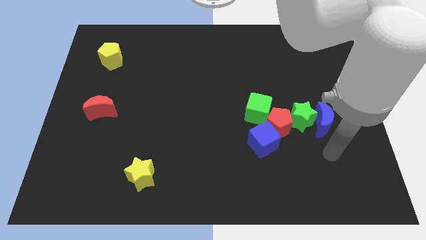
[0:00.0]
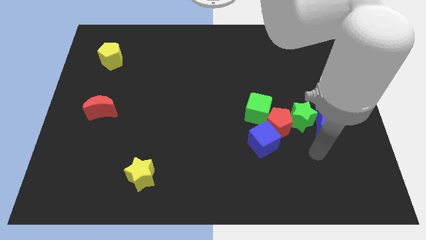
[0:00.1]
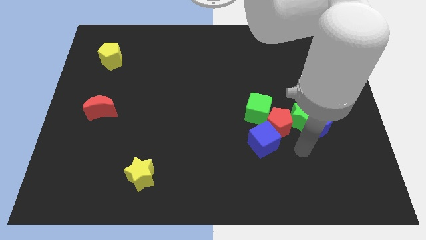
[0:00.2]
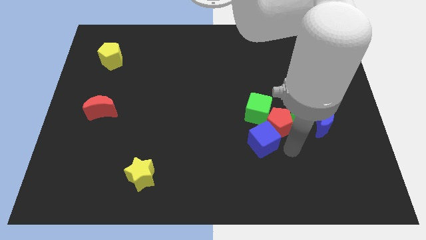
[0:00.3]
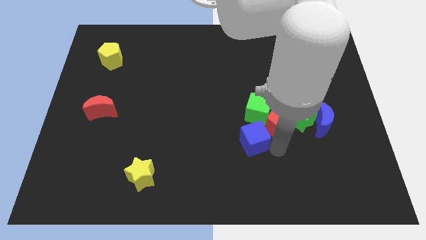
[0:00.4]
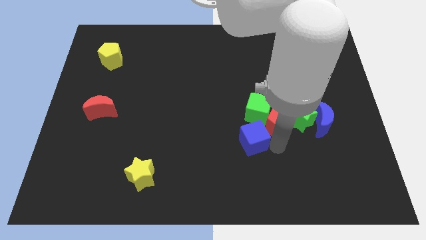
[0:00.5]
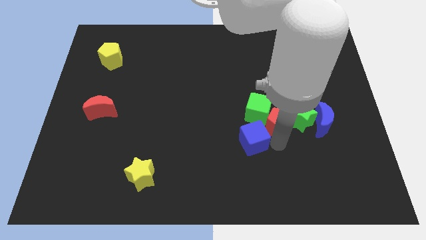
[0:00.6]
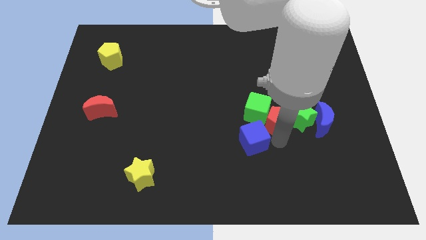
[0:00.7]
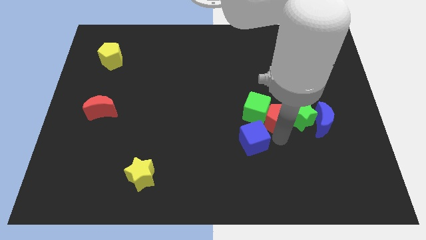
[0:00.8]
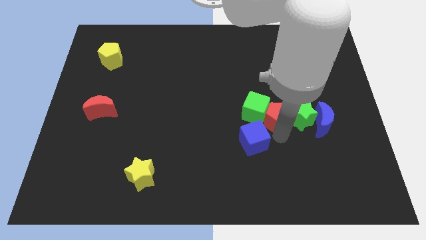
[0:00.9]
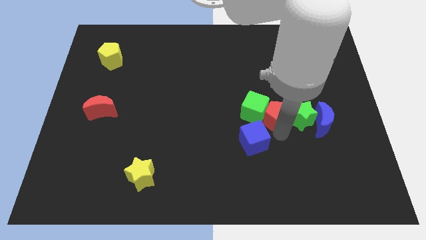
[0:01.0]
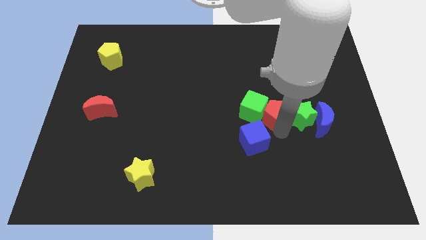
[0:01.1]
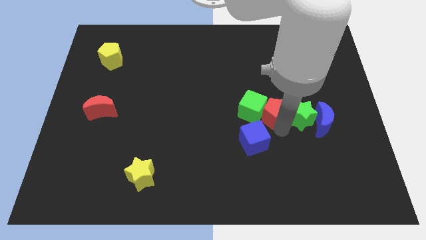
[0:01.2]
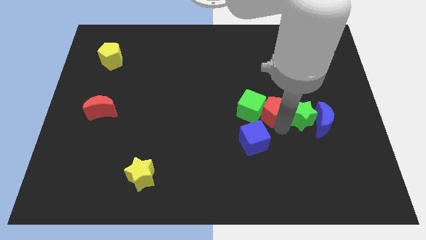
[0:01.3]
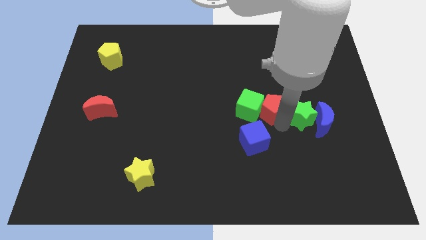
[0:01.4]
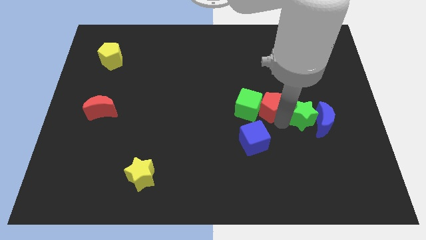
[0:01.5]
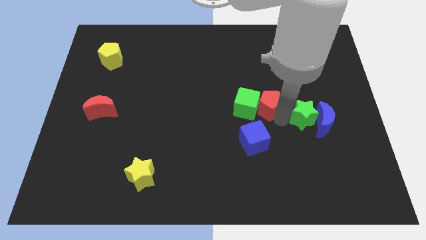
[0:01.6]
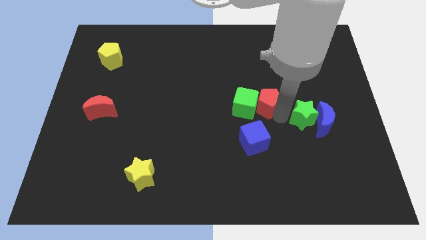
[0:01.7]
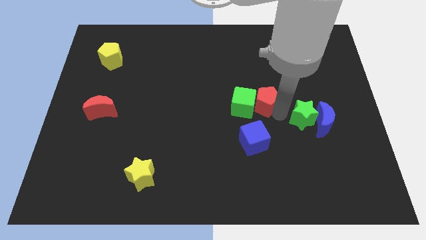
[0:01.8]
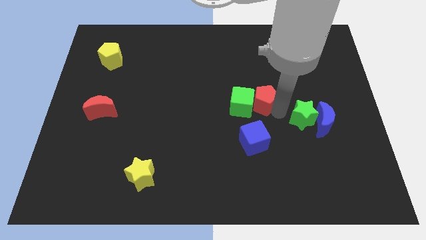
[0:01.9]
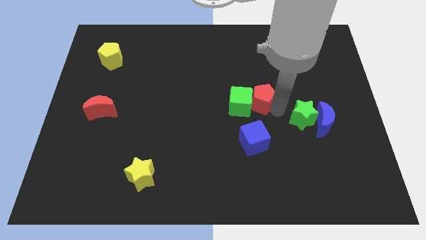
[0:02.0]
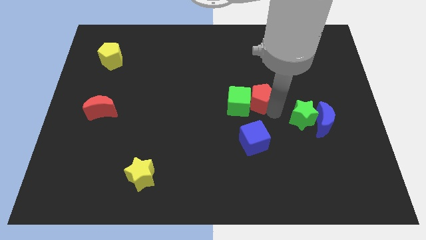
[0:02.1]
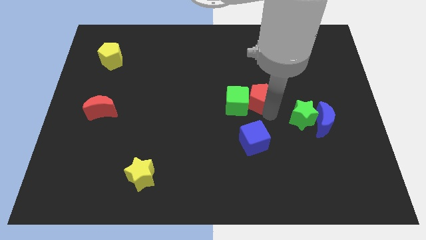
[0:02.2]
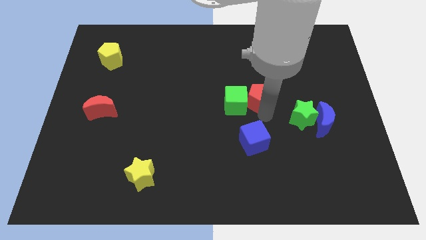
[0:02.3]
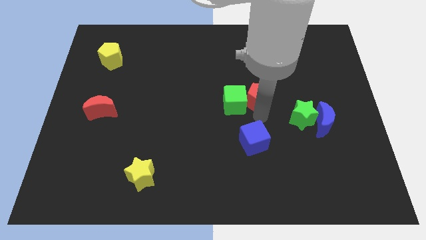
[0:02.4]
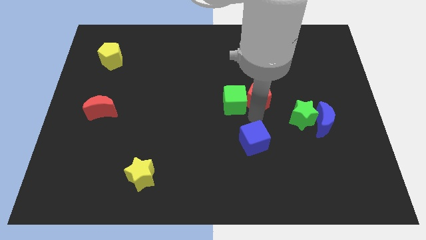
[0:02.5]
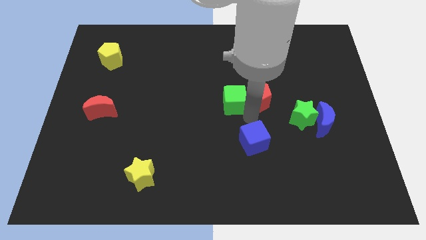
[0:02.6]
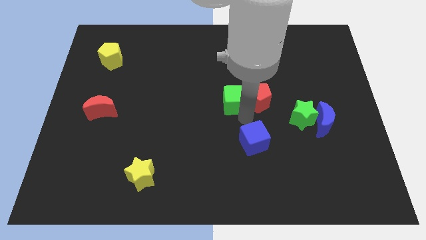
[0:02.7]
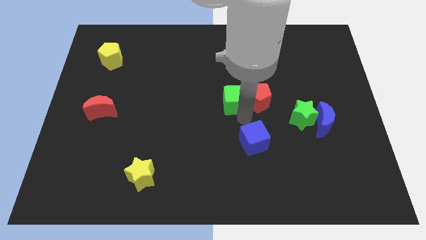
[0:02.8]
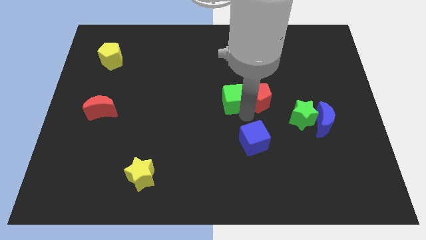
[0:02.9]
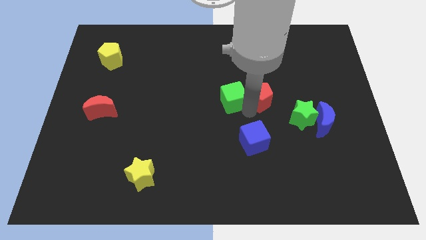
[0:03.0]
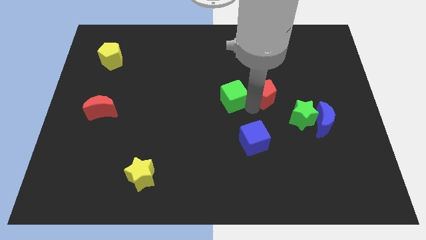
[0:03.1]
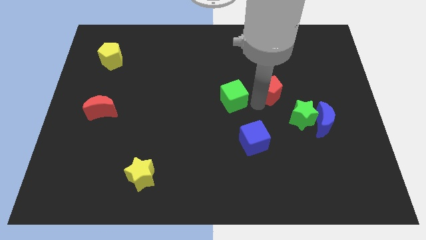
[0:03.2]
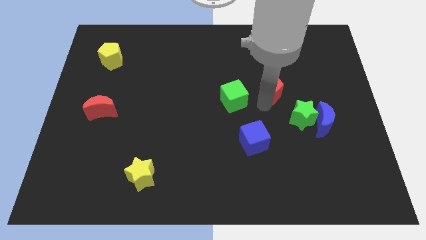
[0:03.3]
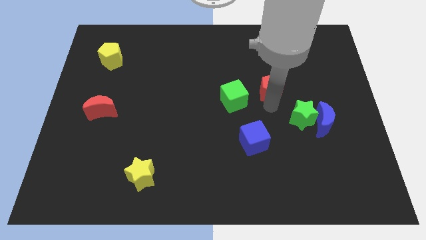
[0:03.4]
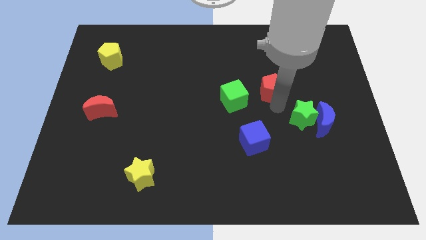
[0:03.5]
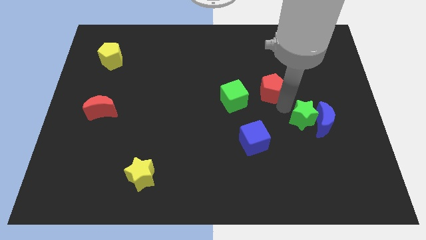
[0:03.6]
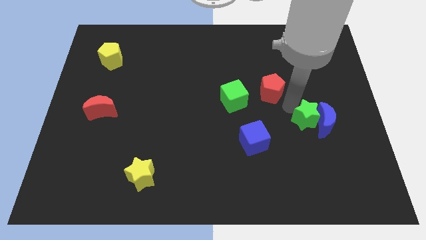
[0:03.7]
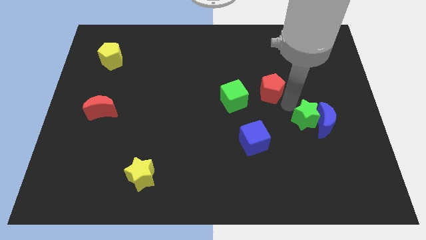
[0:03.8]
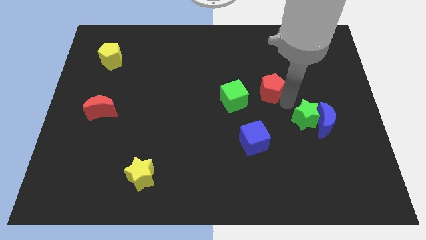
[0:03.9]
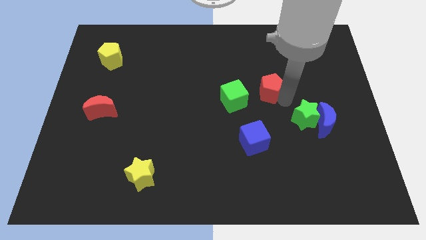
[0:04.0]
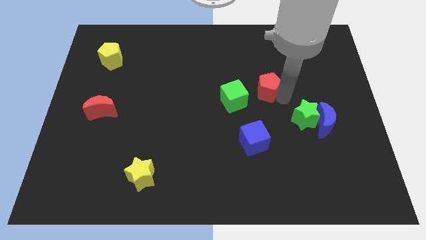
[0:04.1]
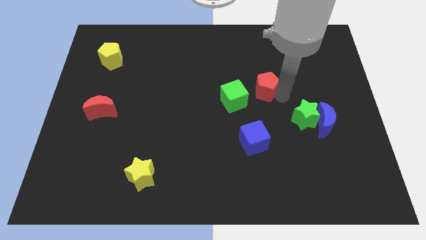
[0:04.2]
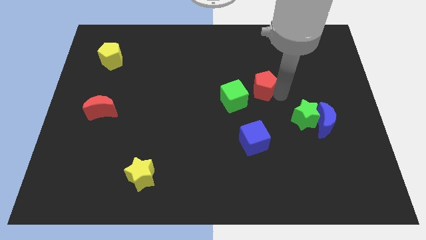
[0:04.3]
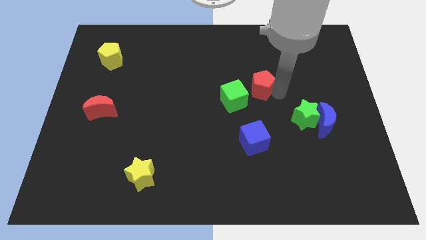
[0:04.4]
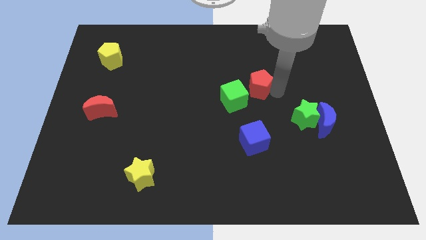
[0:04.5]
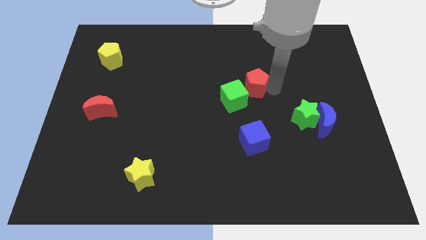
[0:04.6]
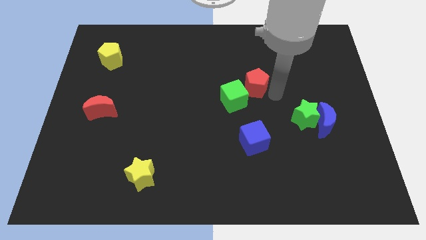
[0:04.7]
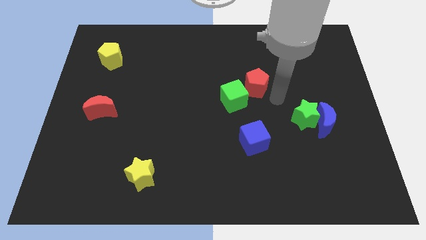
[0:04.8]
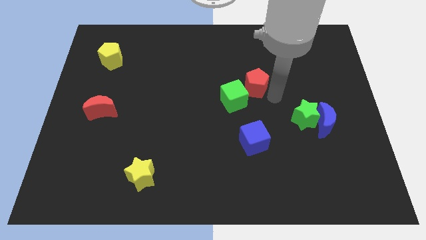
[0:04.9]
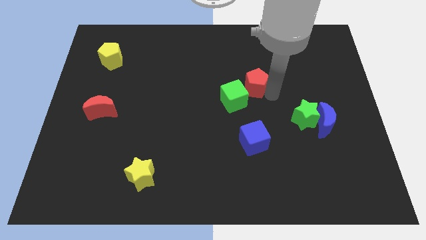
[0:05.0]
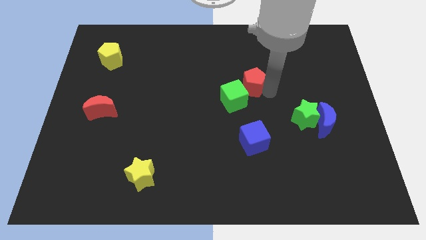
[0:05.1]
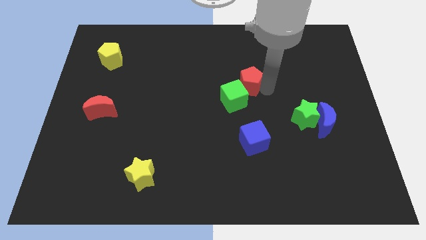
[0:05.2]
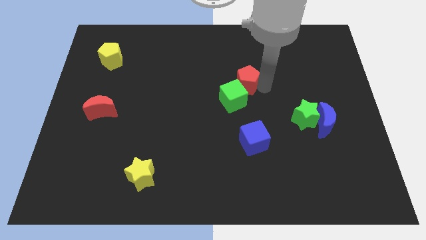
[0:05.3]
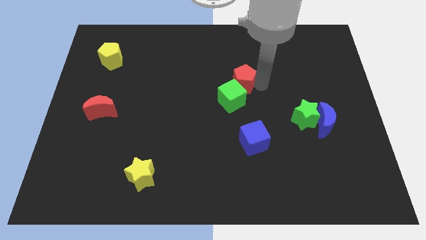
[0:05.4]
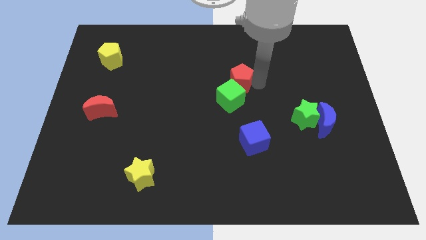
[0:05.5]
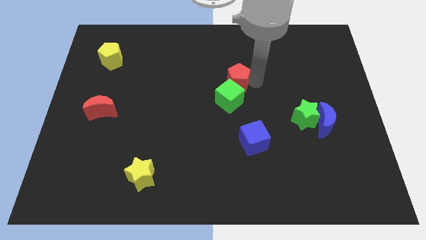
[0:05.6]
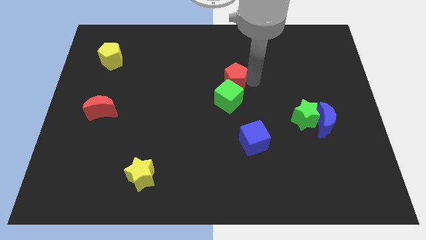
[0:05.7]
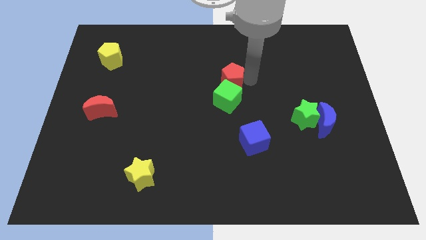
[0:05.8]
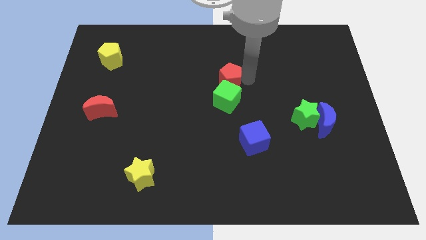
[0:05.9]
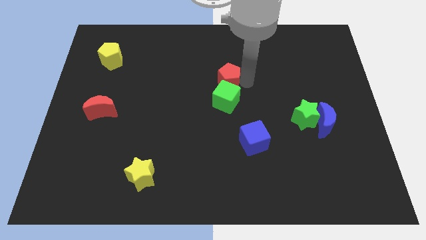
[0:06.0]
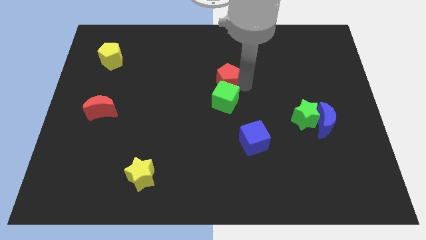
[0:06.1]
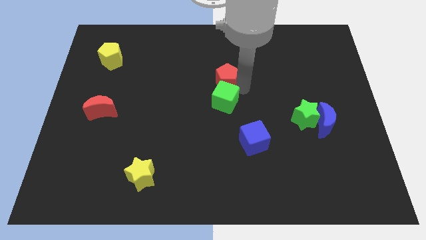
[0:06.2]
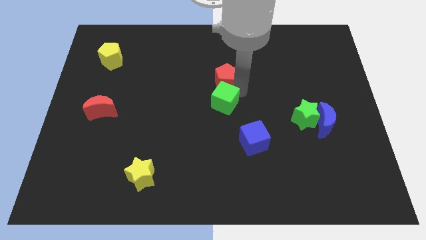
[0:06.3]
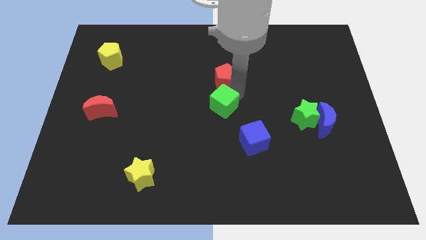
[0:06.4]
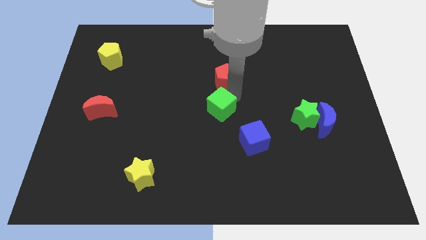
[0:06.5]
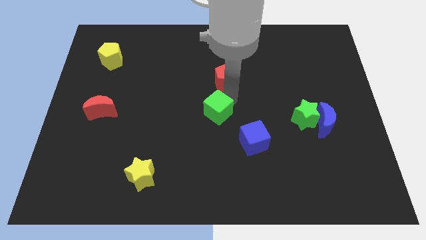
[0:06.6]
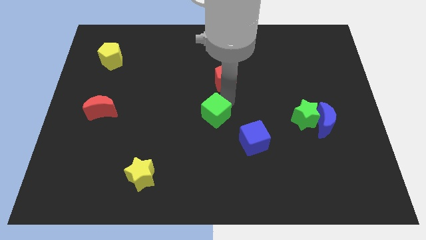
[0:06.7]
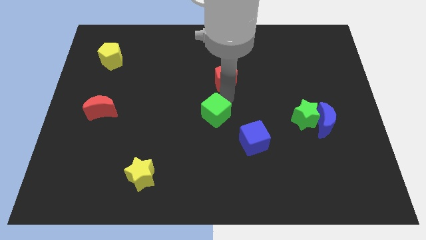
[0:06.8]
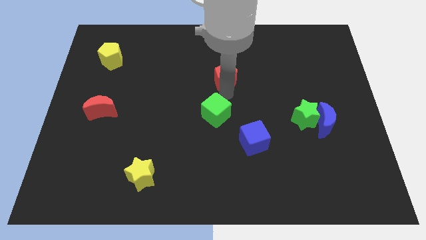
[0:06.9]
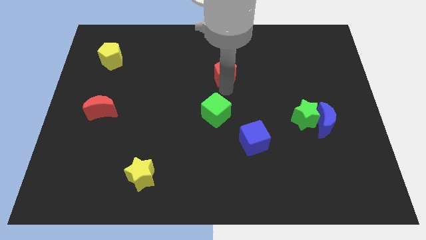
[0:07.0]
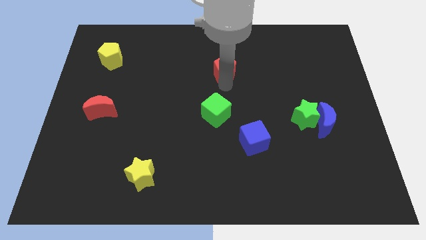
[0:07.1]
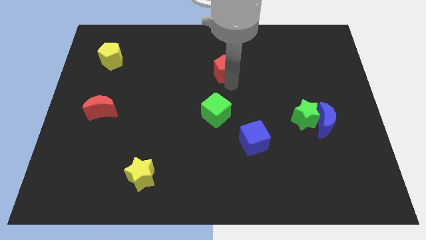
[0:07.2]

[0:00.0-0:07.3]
slide the red pentagon up and left

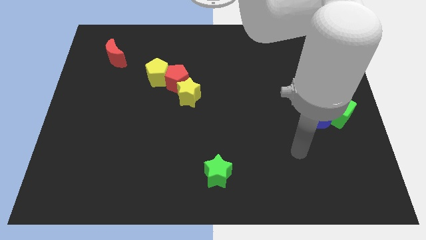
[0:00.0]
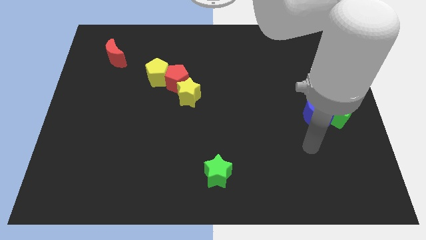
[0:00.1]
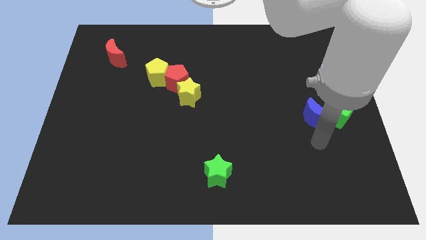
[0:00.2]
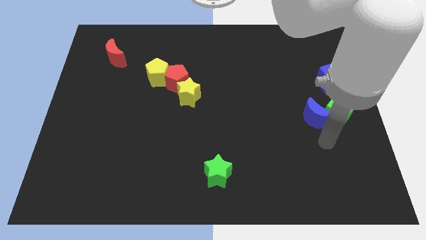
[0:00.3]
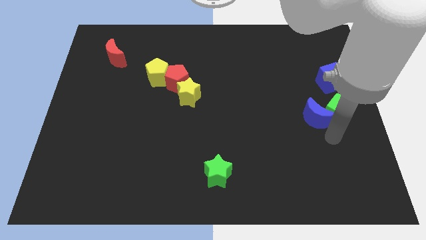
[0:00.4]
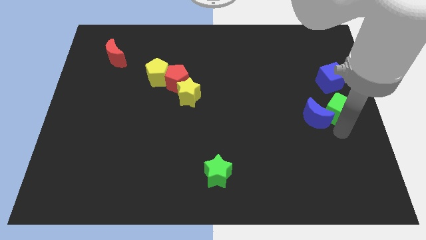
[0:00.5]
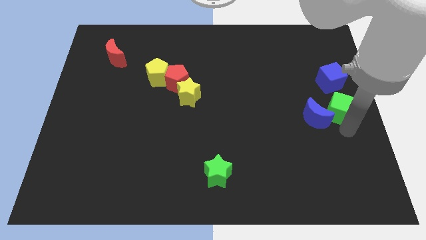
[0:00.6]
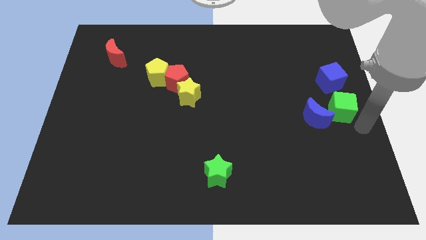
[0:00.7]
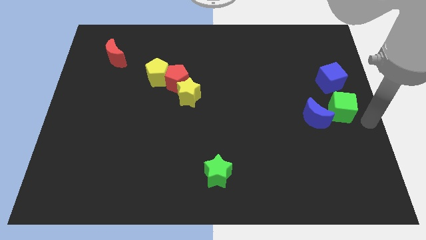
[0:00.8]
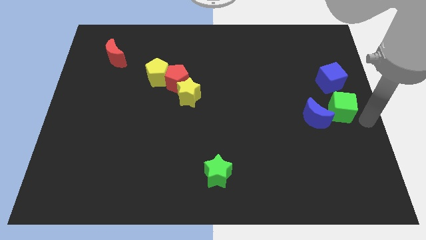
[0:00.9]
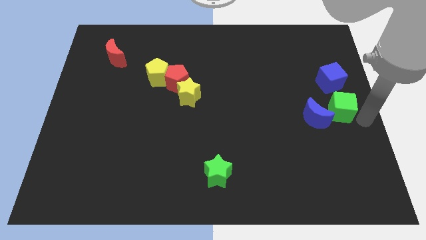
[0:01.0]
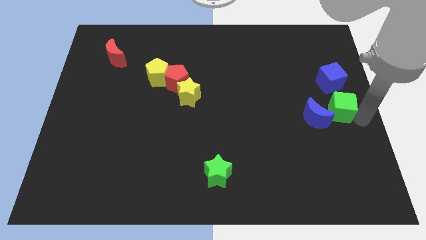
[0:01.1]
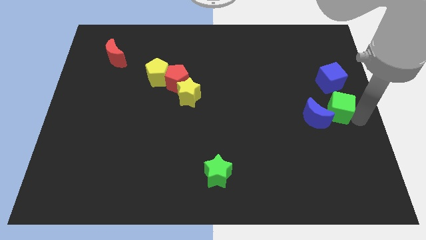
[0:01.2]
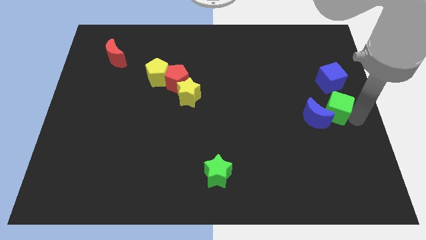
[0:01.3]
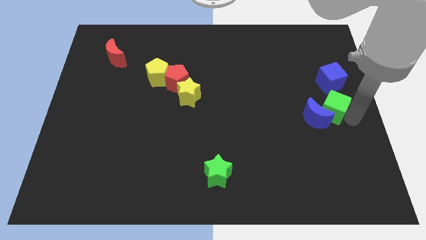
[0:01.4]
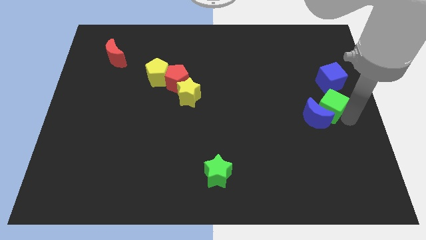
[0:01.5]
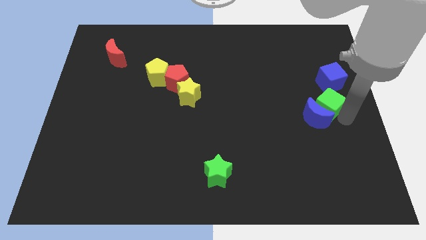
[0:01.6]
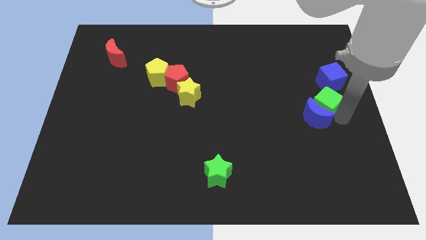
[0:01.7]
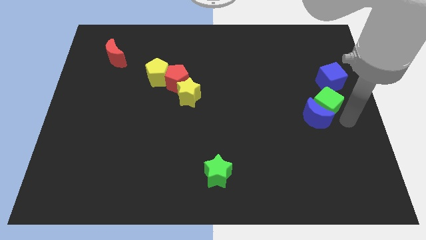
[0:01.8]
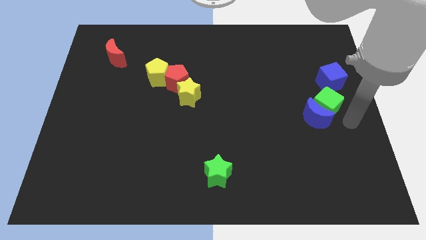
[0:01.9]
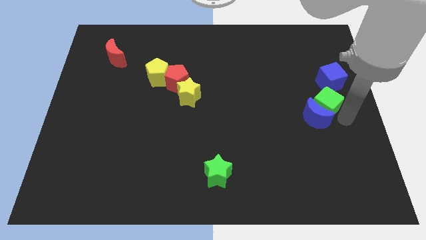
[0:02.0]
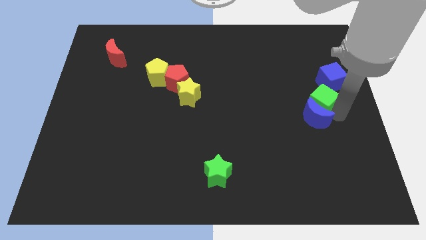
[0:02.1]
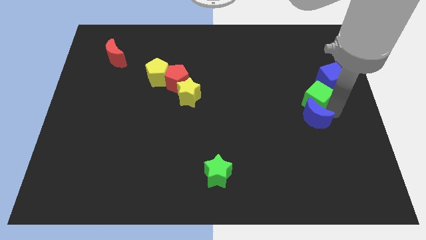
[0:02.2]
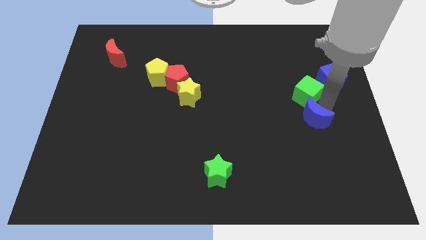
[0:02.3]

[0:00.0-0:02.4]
push the green cube somewhat diagonally up and to the left
